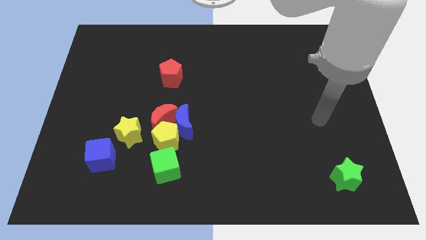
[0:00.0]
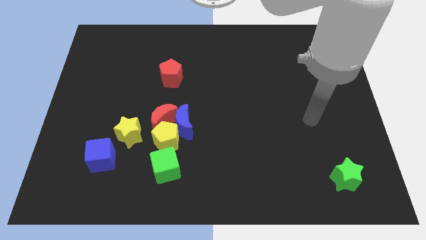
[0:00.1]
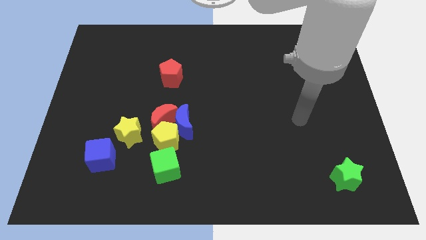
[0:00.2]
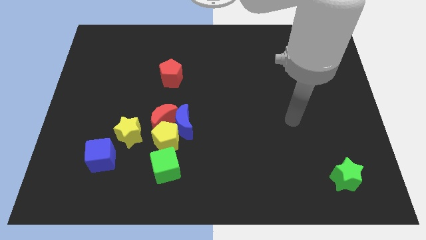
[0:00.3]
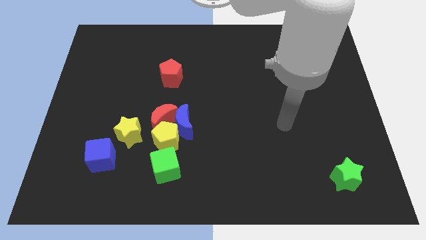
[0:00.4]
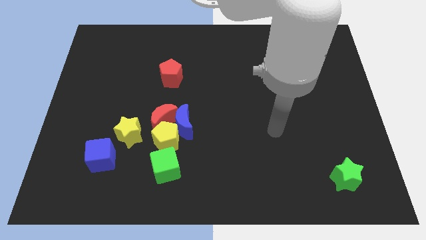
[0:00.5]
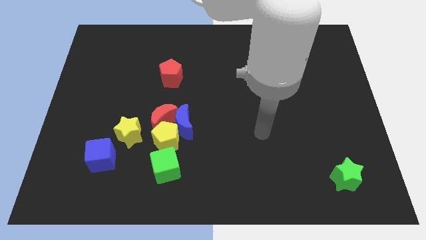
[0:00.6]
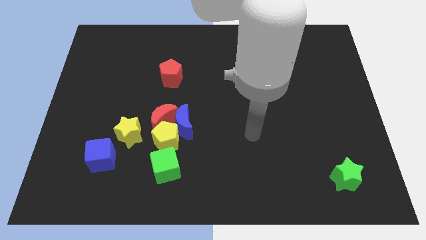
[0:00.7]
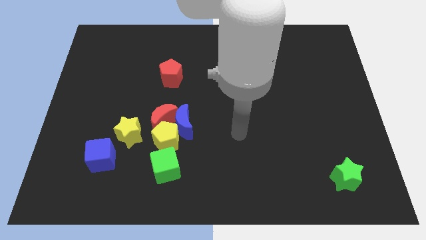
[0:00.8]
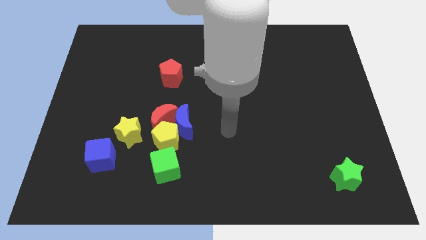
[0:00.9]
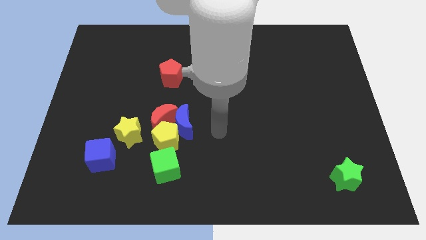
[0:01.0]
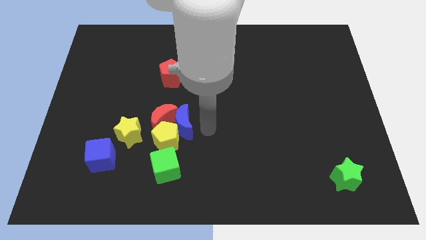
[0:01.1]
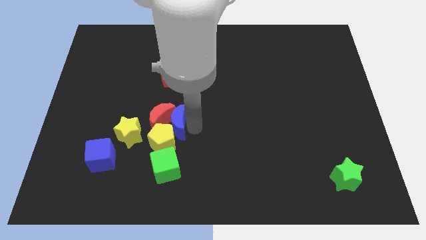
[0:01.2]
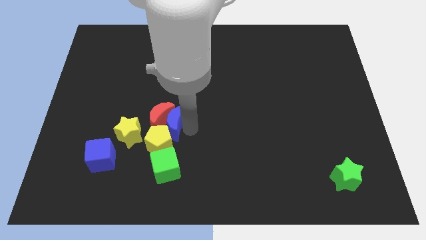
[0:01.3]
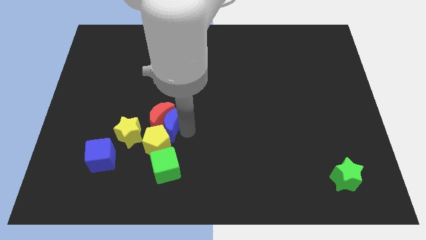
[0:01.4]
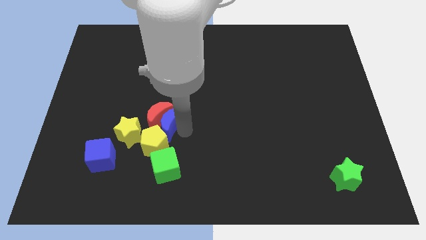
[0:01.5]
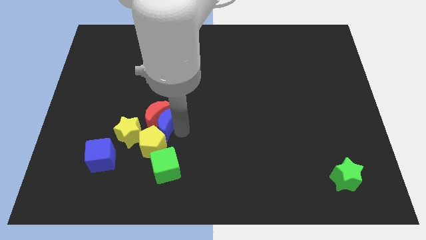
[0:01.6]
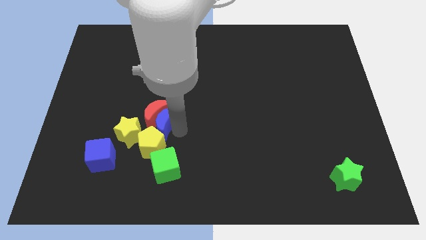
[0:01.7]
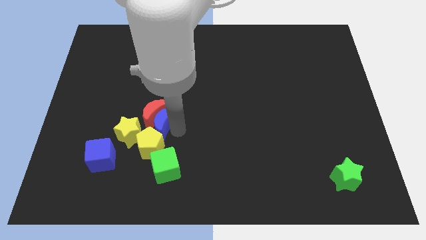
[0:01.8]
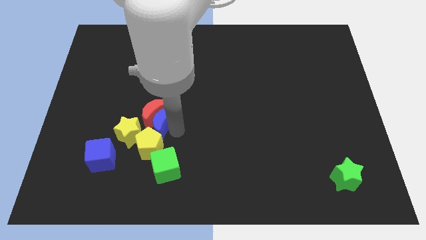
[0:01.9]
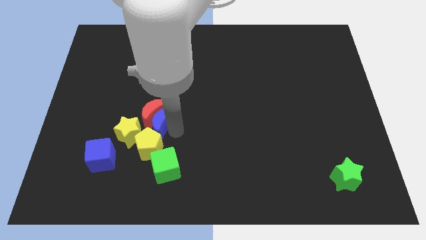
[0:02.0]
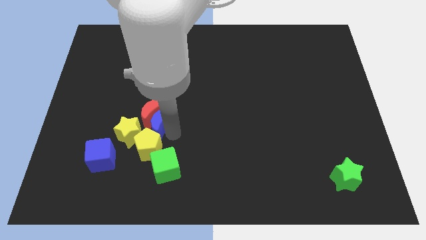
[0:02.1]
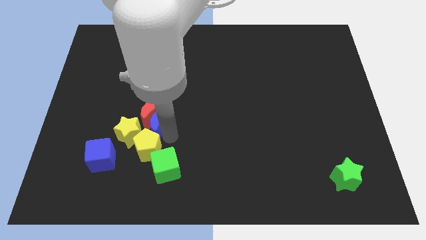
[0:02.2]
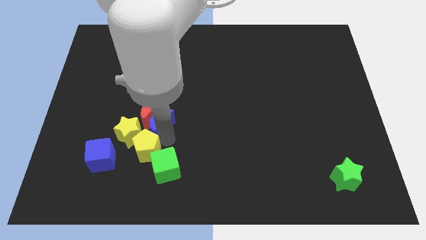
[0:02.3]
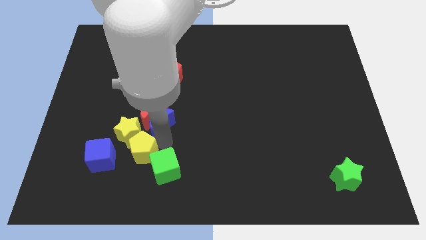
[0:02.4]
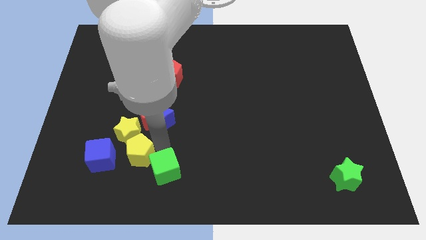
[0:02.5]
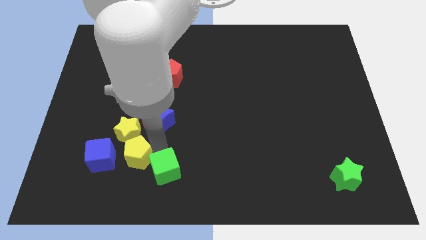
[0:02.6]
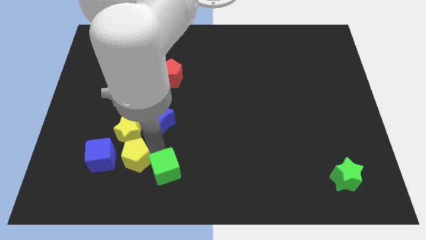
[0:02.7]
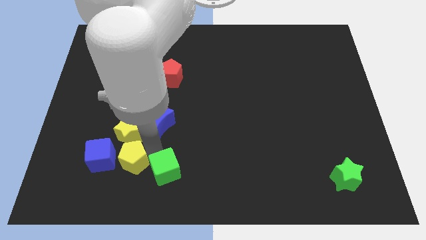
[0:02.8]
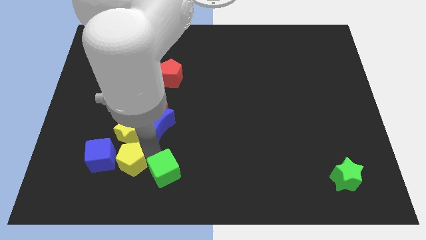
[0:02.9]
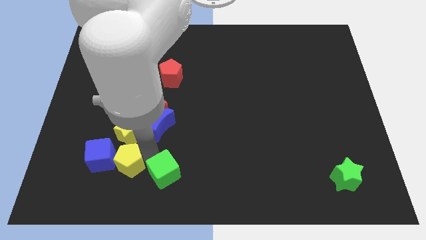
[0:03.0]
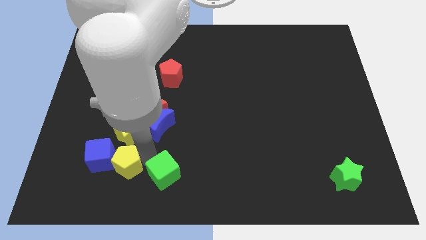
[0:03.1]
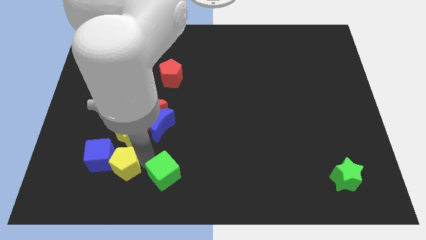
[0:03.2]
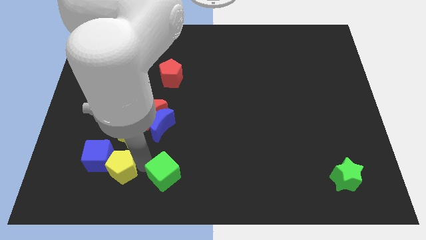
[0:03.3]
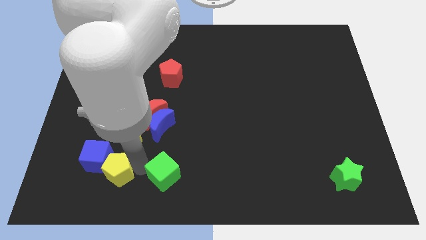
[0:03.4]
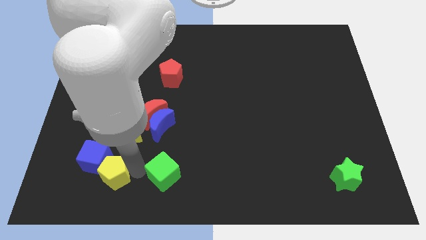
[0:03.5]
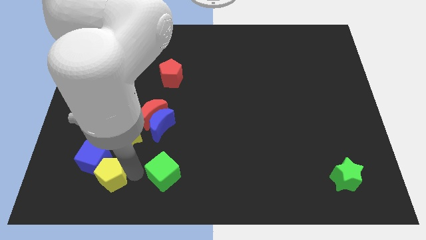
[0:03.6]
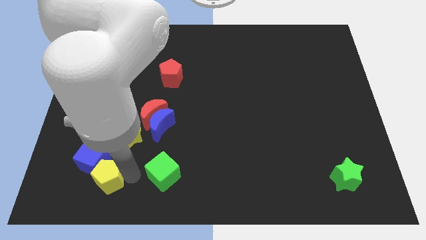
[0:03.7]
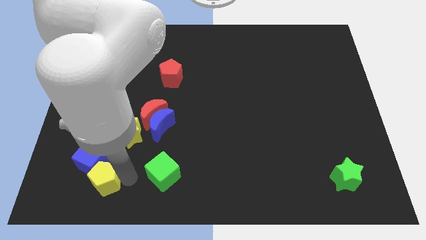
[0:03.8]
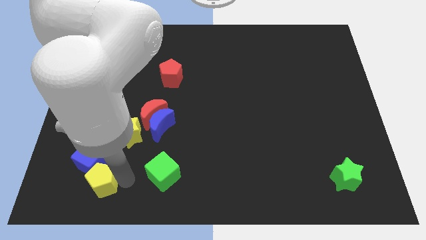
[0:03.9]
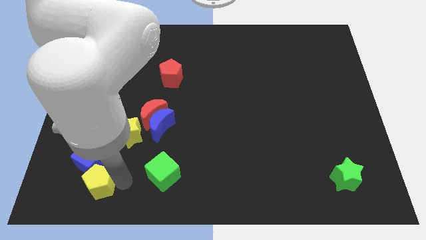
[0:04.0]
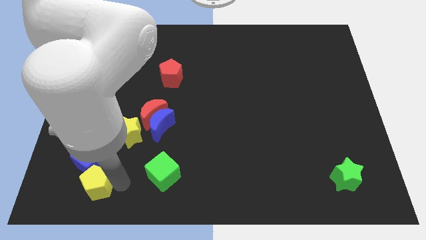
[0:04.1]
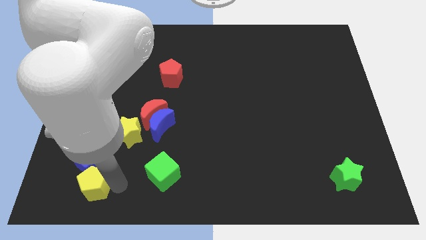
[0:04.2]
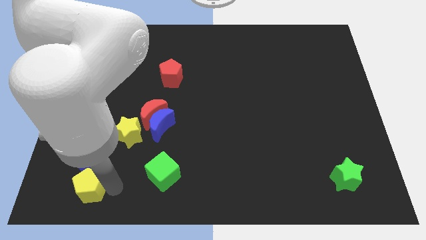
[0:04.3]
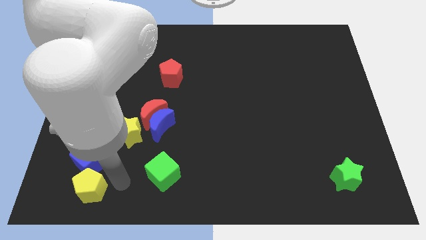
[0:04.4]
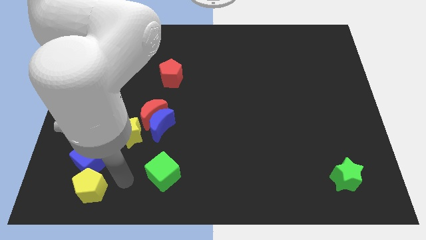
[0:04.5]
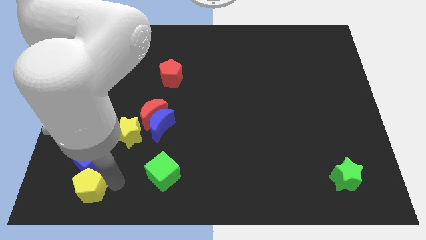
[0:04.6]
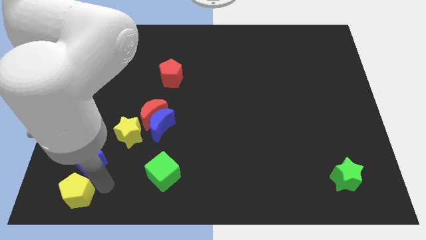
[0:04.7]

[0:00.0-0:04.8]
push the yellow pentagon to the bottom left corner

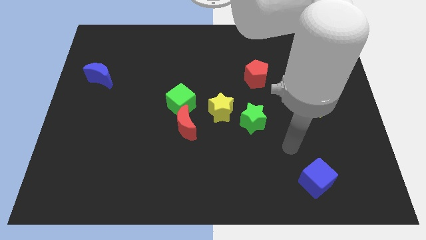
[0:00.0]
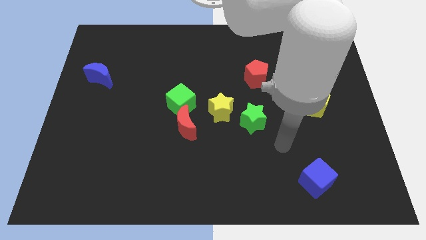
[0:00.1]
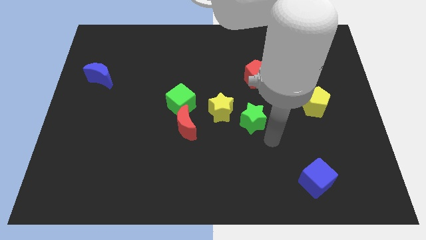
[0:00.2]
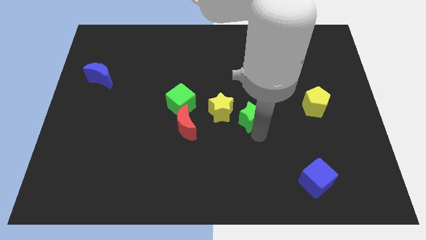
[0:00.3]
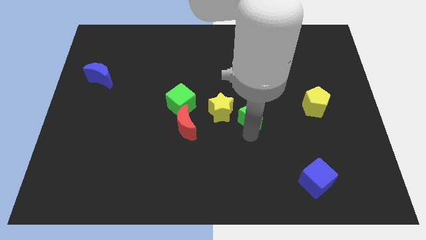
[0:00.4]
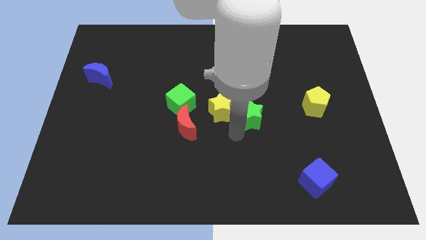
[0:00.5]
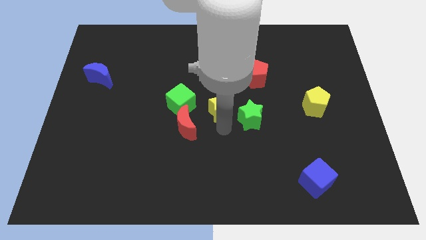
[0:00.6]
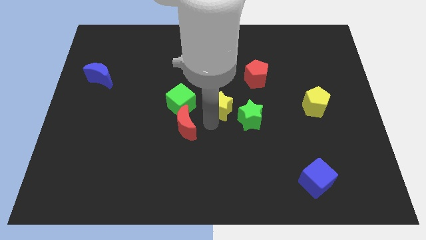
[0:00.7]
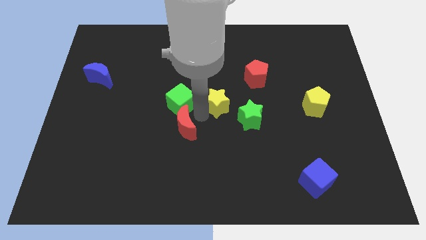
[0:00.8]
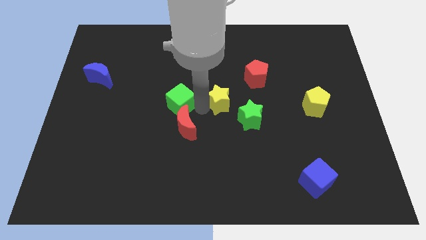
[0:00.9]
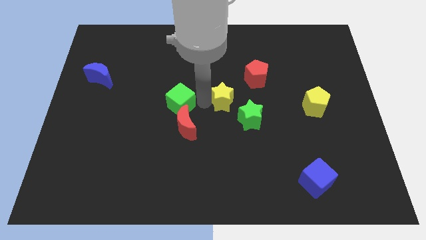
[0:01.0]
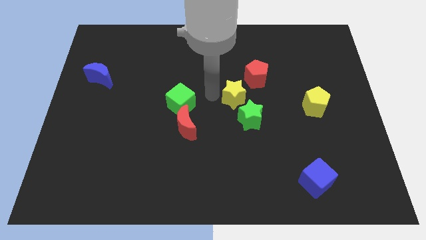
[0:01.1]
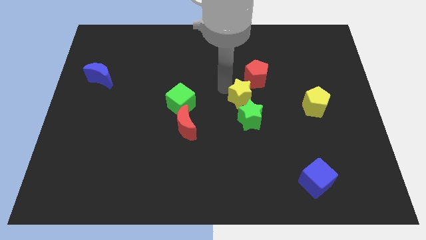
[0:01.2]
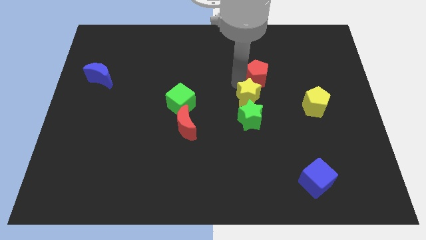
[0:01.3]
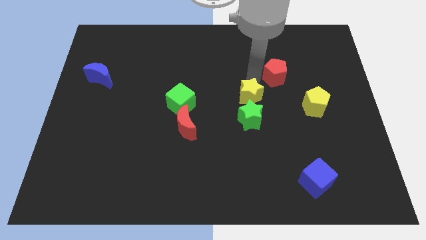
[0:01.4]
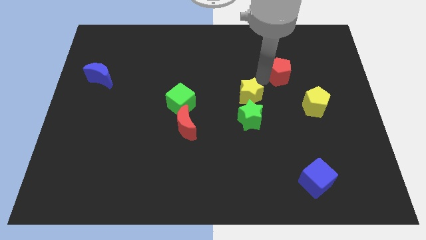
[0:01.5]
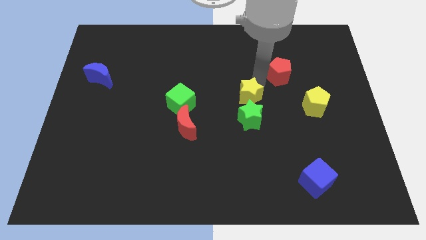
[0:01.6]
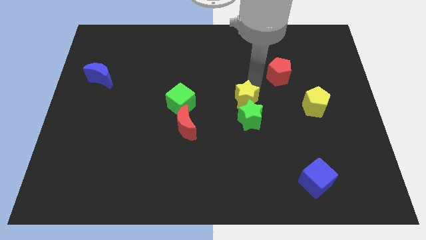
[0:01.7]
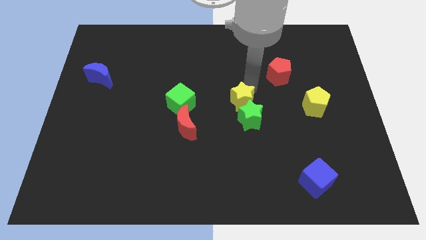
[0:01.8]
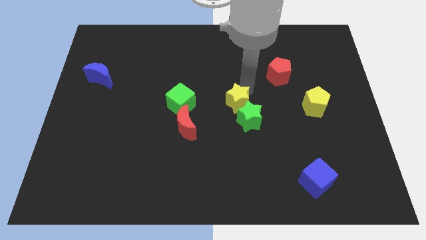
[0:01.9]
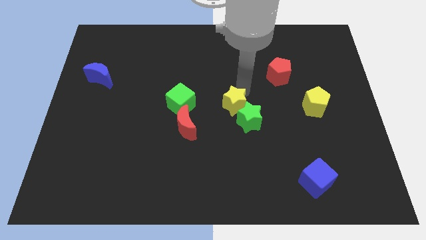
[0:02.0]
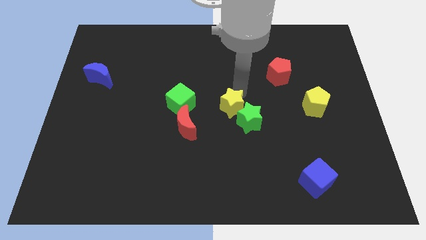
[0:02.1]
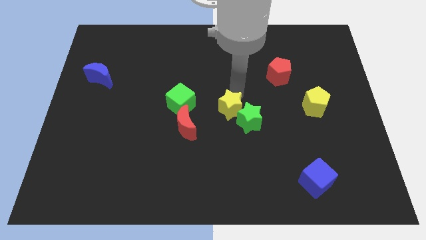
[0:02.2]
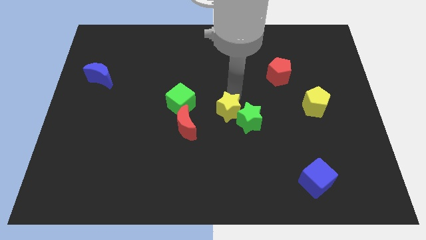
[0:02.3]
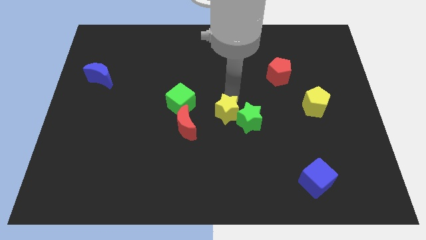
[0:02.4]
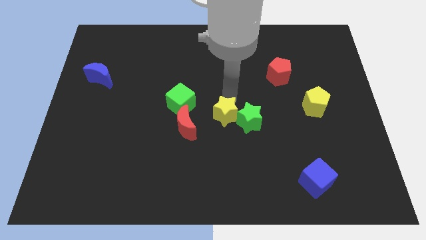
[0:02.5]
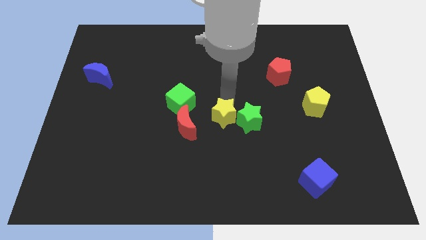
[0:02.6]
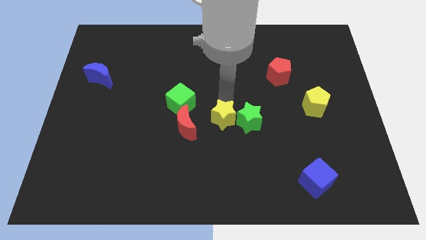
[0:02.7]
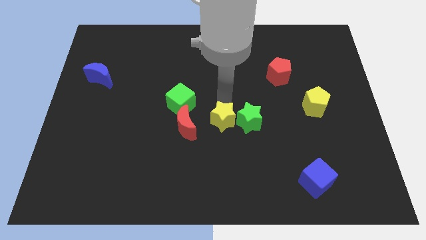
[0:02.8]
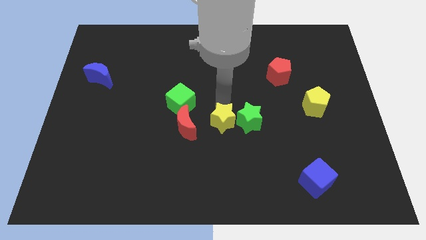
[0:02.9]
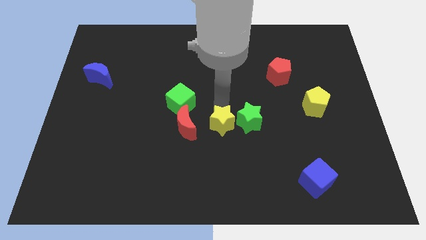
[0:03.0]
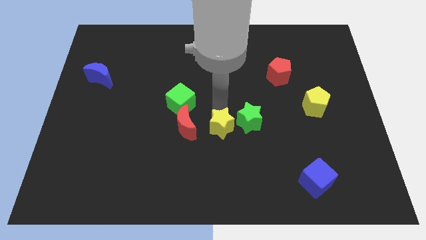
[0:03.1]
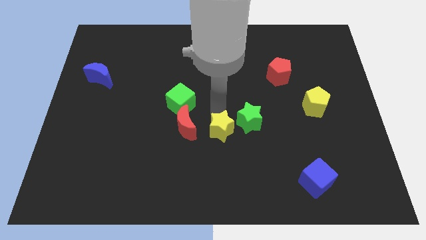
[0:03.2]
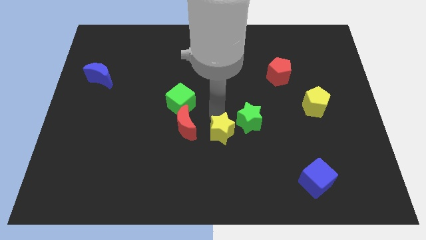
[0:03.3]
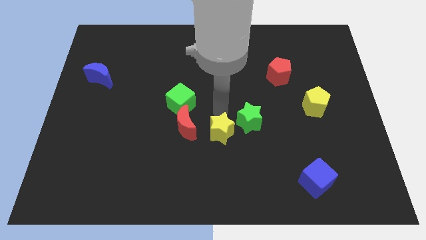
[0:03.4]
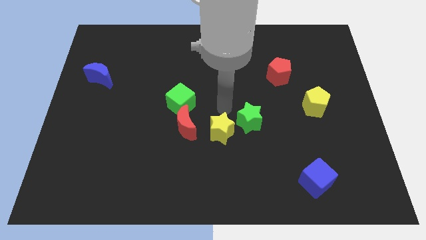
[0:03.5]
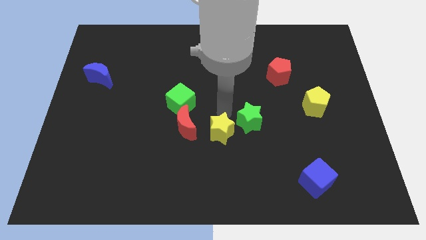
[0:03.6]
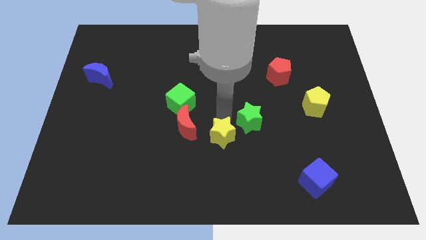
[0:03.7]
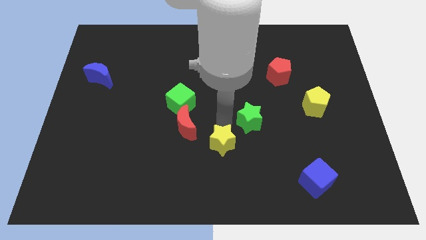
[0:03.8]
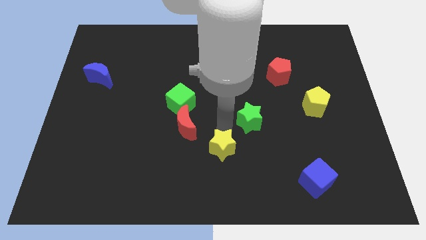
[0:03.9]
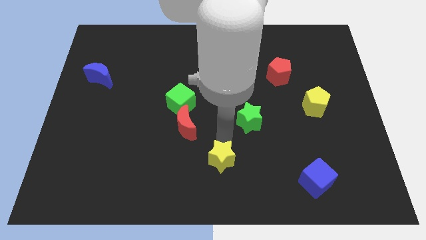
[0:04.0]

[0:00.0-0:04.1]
push the yellow star to the bottom side
